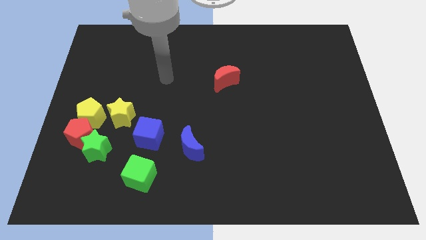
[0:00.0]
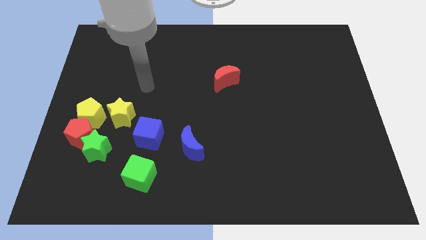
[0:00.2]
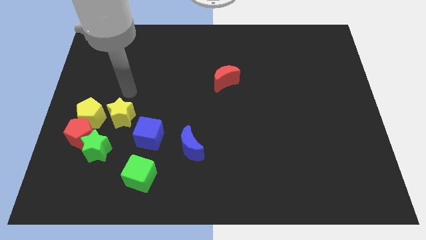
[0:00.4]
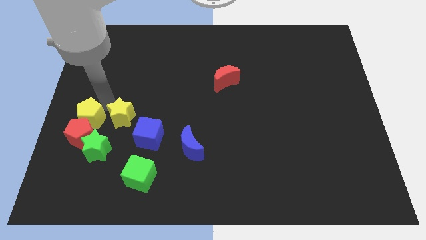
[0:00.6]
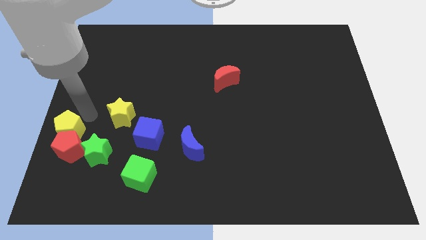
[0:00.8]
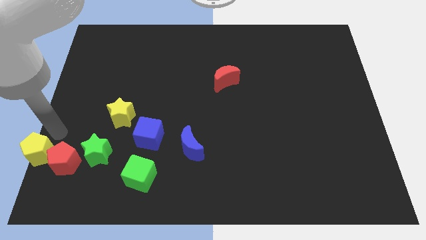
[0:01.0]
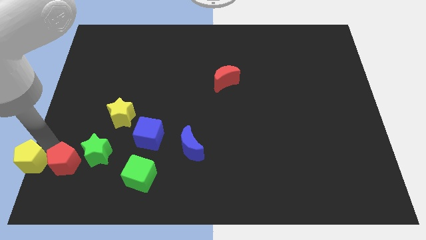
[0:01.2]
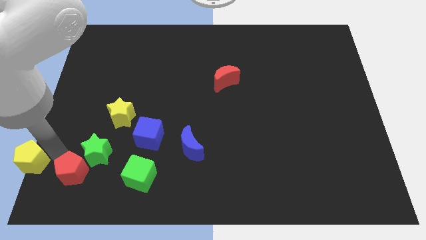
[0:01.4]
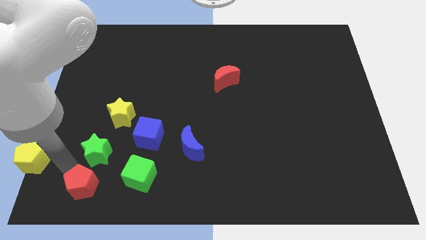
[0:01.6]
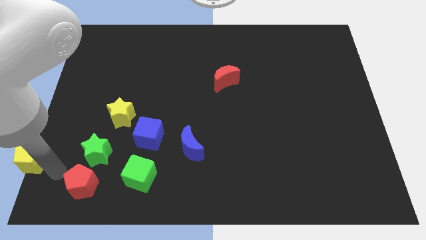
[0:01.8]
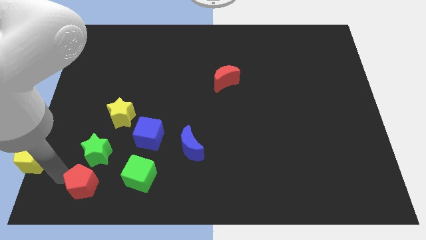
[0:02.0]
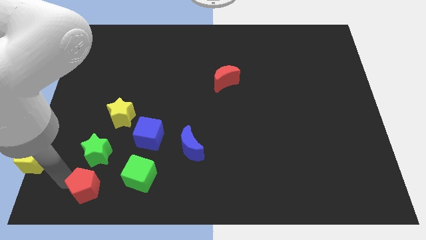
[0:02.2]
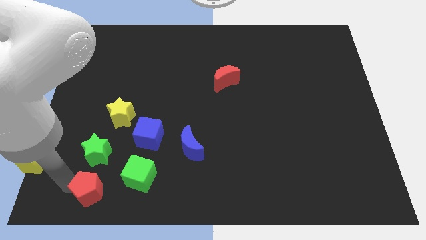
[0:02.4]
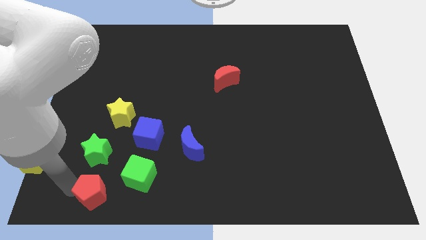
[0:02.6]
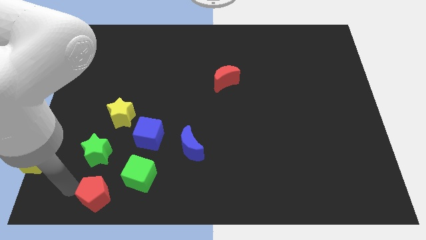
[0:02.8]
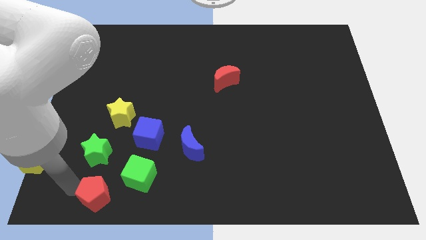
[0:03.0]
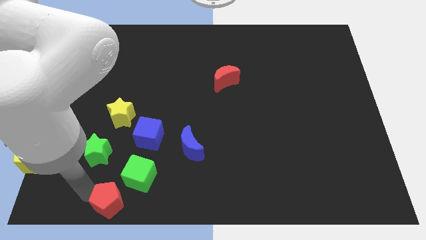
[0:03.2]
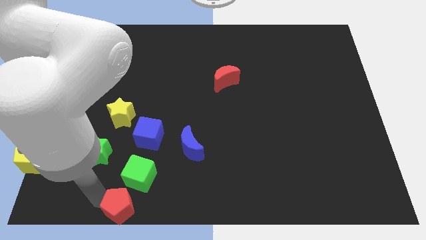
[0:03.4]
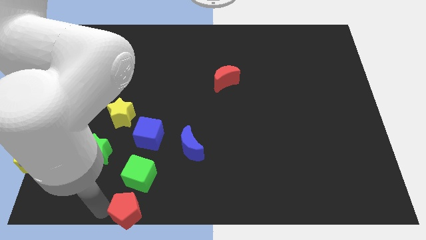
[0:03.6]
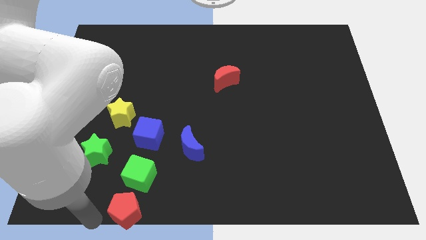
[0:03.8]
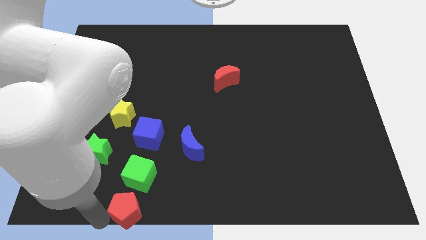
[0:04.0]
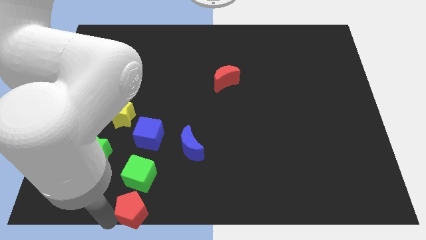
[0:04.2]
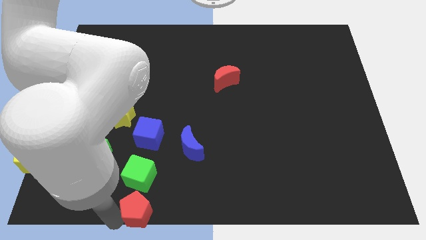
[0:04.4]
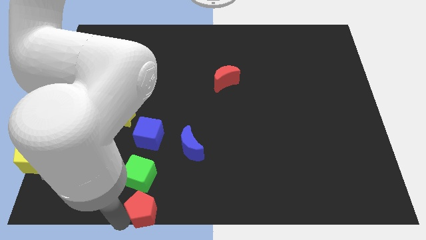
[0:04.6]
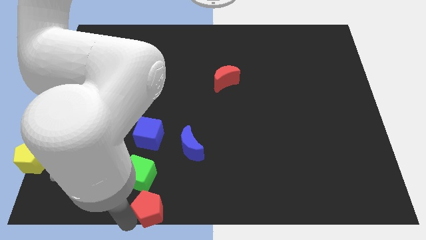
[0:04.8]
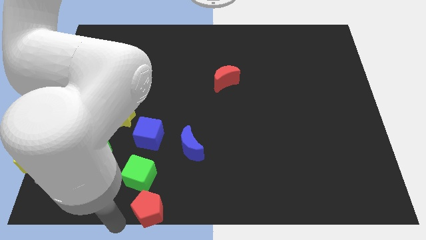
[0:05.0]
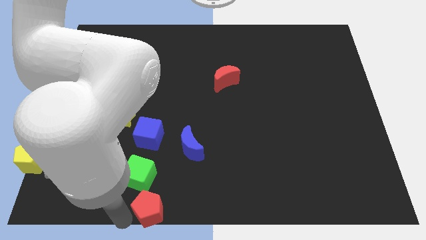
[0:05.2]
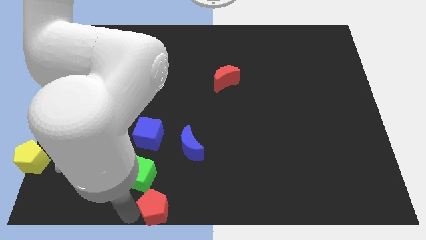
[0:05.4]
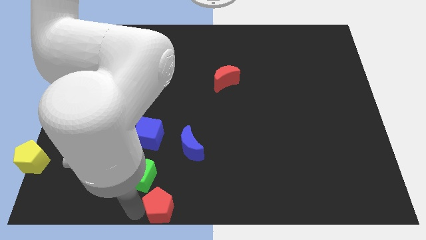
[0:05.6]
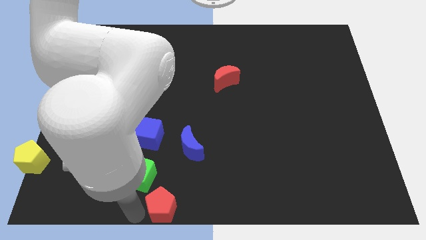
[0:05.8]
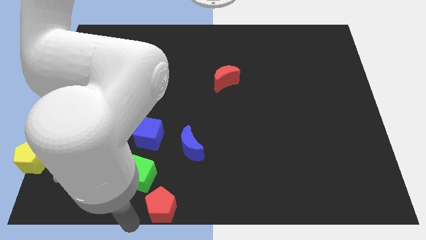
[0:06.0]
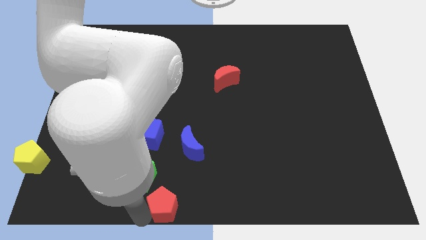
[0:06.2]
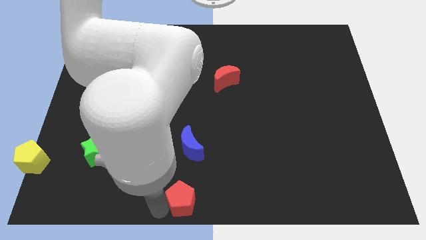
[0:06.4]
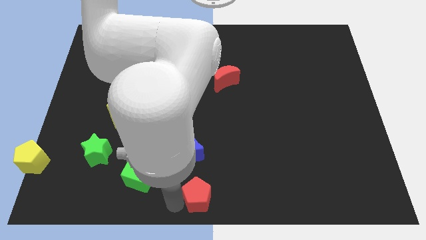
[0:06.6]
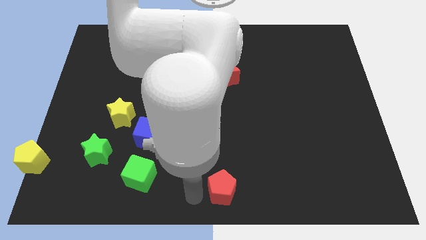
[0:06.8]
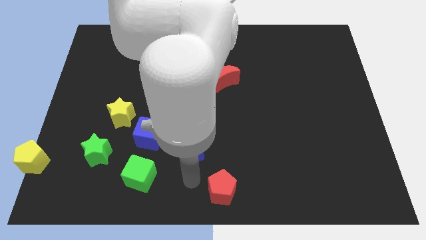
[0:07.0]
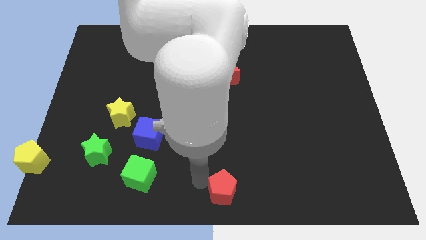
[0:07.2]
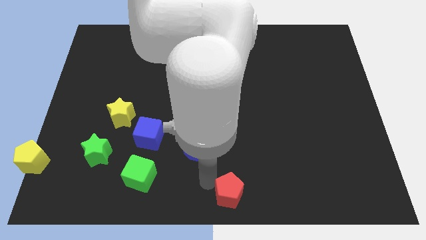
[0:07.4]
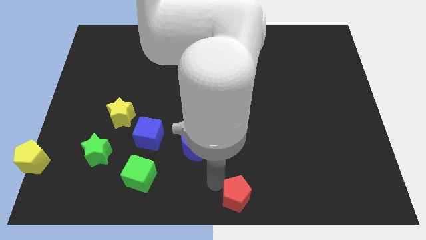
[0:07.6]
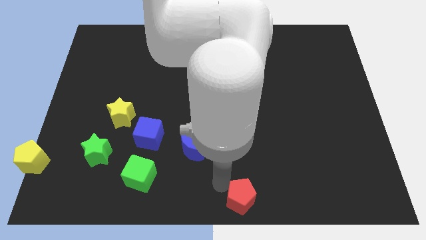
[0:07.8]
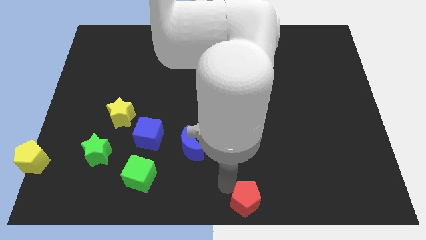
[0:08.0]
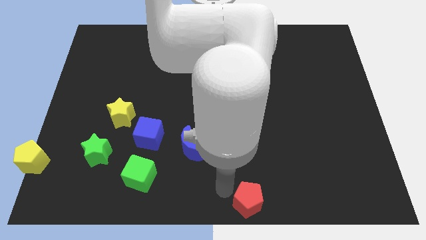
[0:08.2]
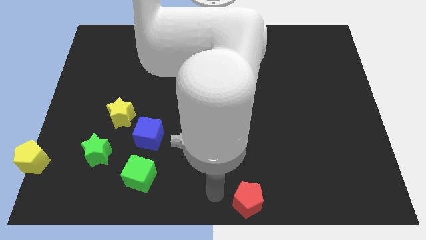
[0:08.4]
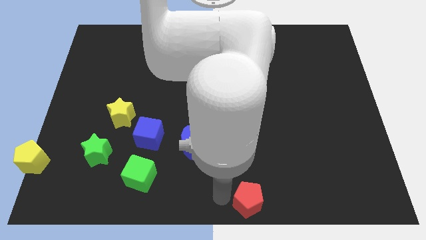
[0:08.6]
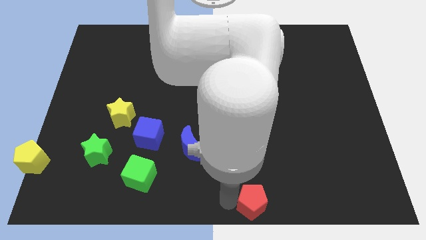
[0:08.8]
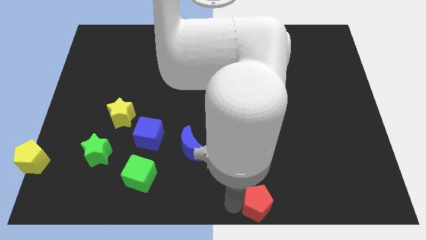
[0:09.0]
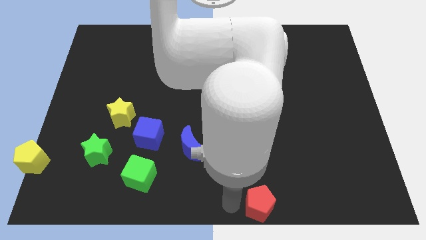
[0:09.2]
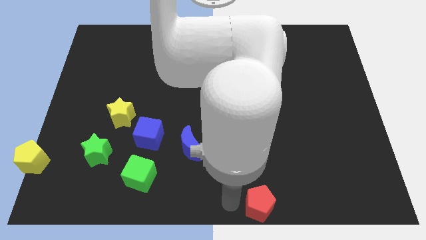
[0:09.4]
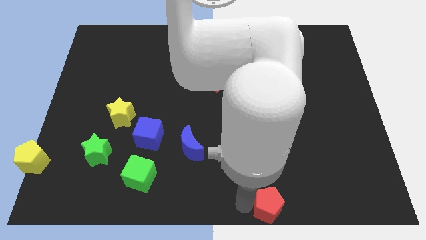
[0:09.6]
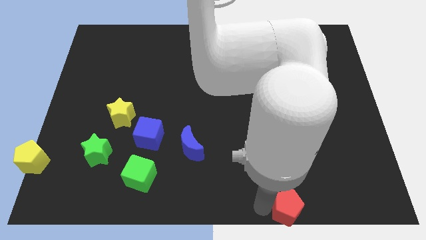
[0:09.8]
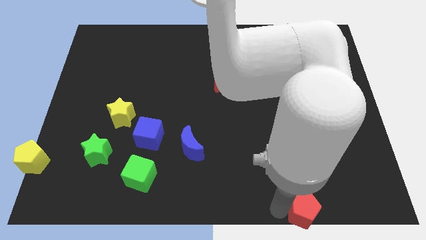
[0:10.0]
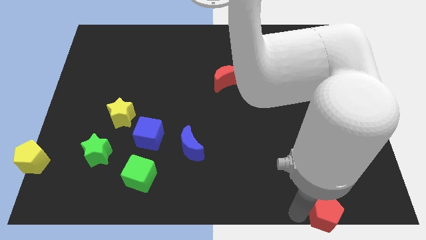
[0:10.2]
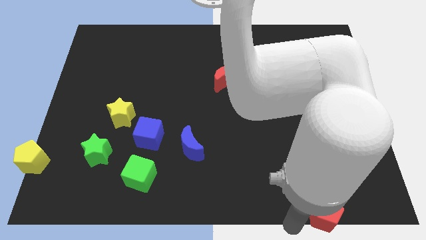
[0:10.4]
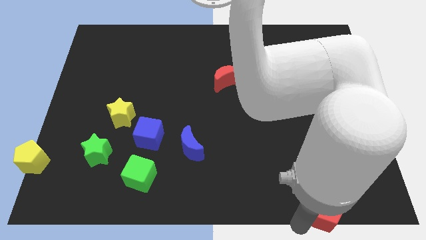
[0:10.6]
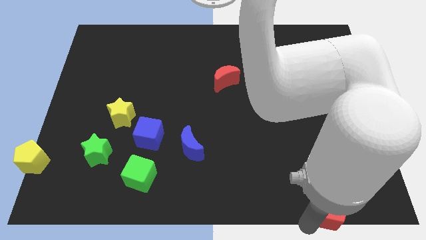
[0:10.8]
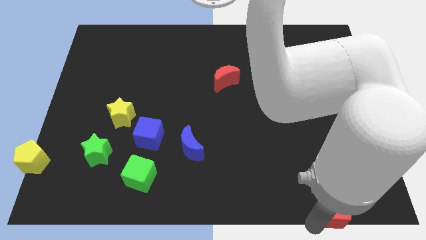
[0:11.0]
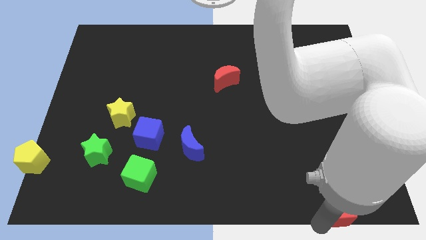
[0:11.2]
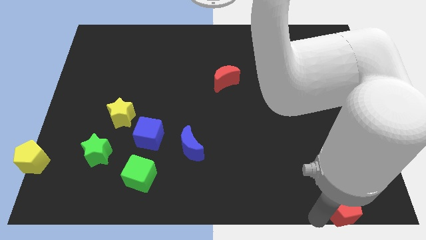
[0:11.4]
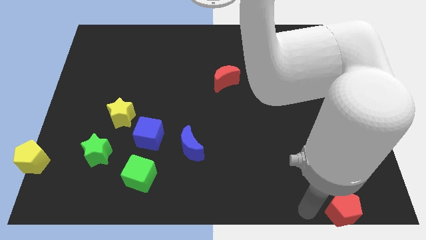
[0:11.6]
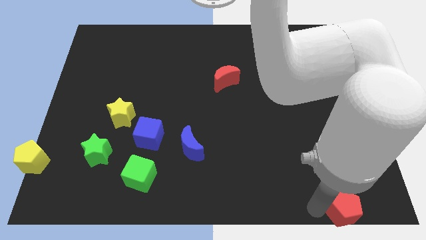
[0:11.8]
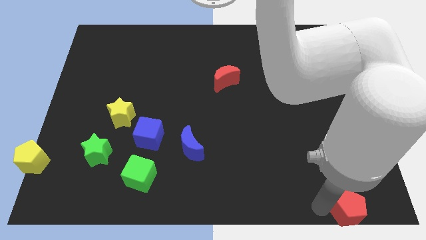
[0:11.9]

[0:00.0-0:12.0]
move the red pentagon to the lower right corner
